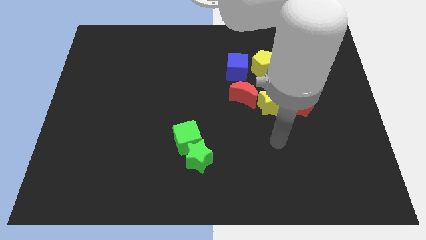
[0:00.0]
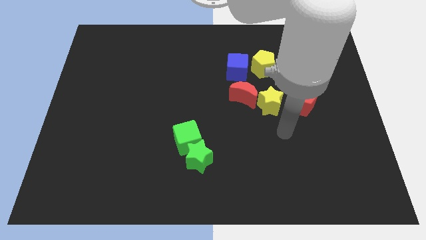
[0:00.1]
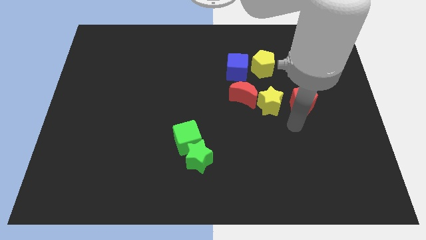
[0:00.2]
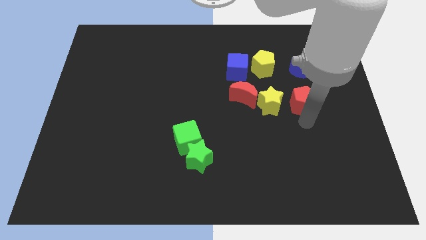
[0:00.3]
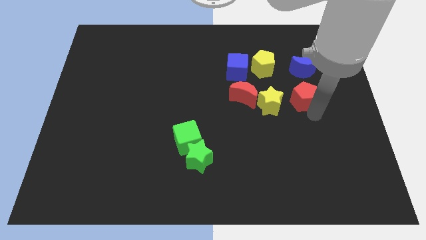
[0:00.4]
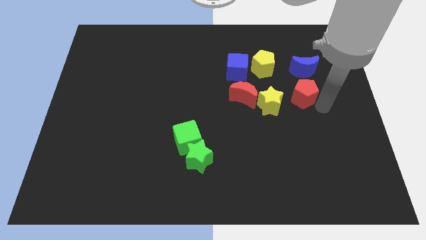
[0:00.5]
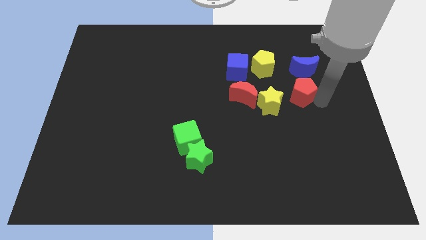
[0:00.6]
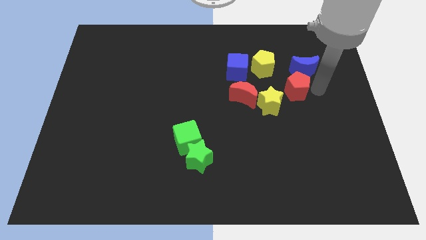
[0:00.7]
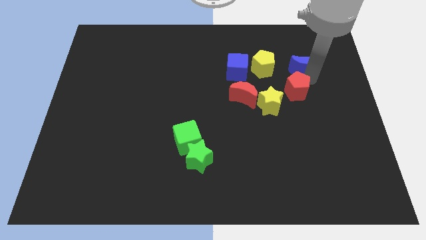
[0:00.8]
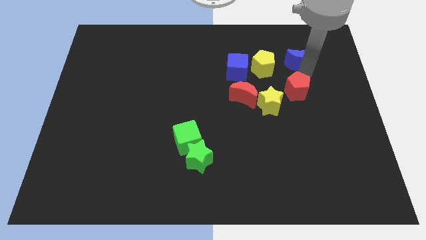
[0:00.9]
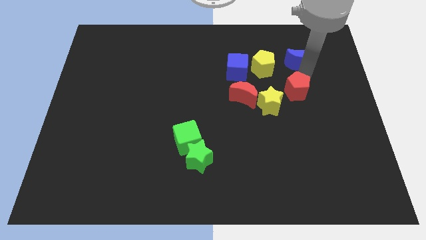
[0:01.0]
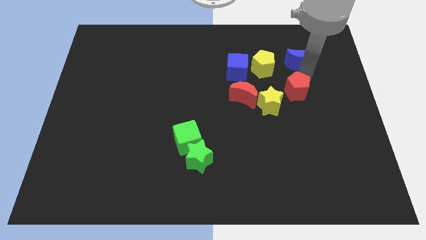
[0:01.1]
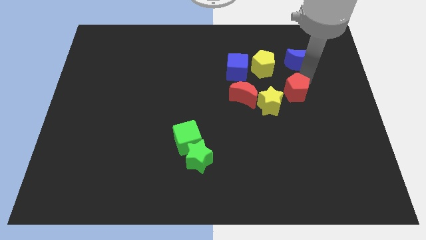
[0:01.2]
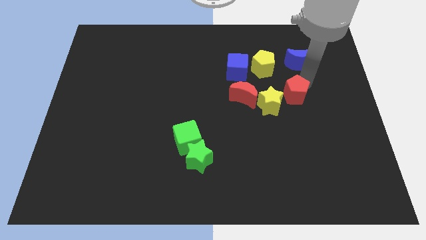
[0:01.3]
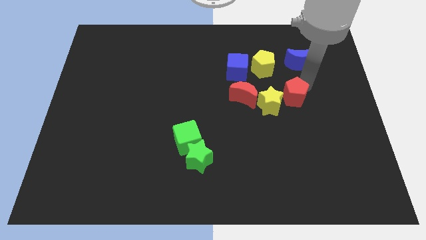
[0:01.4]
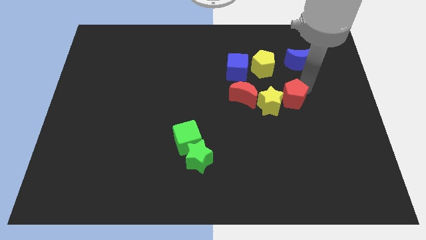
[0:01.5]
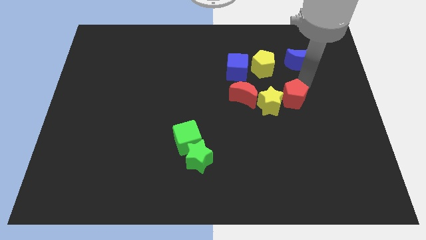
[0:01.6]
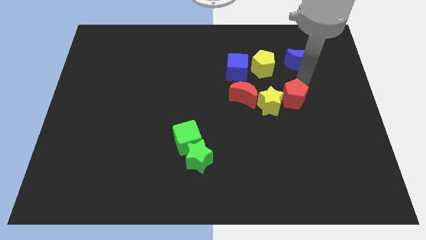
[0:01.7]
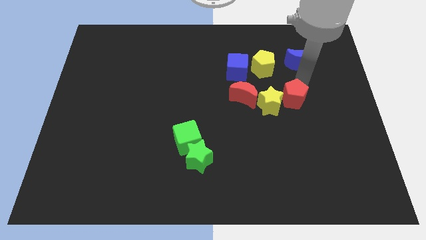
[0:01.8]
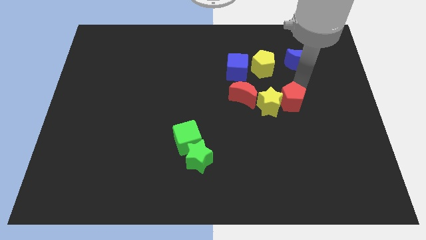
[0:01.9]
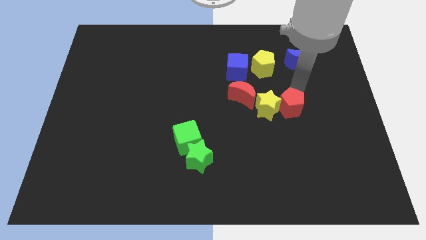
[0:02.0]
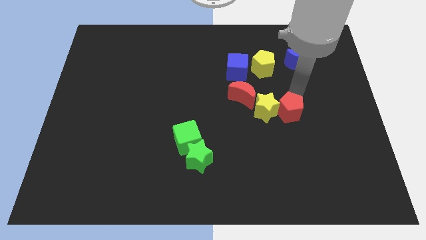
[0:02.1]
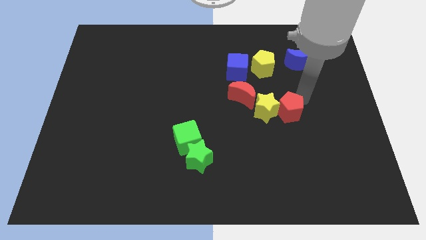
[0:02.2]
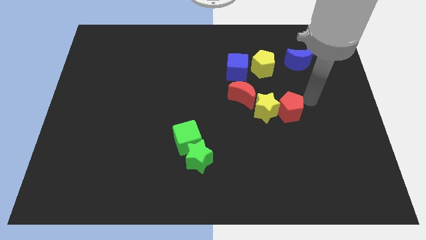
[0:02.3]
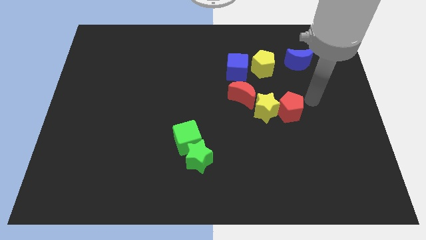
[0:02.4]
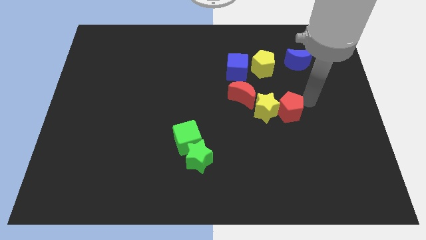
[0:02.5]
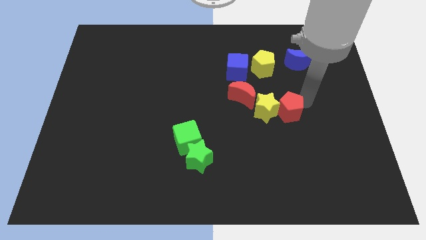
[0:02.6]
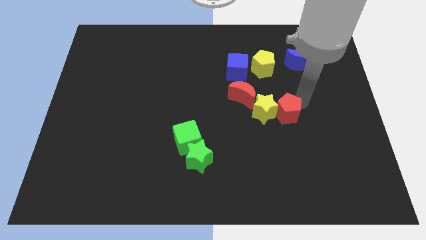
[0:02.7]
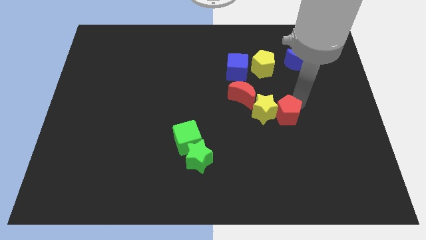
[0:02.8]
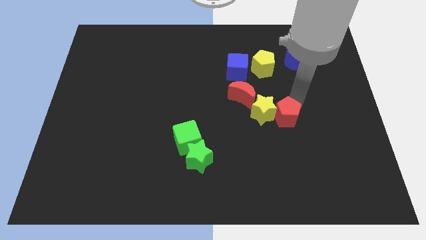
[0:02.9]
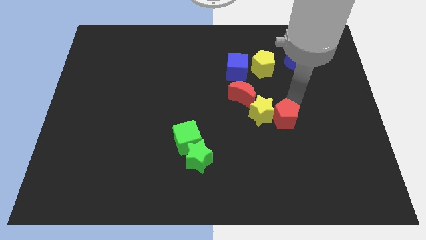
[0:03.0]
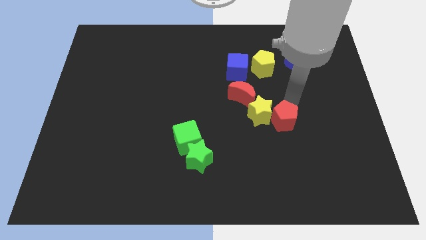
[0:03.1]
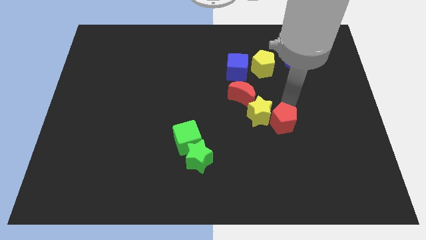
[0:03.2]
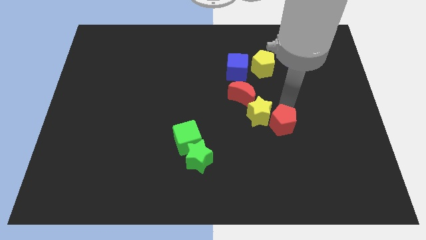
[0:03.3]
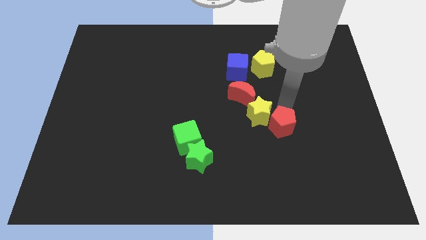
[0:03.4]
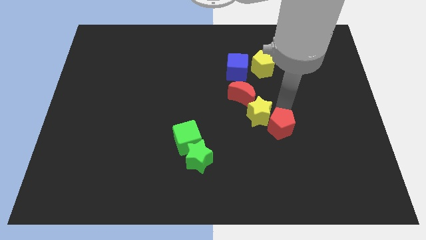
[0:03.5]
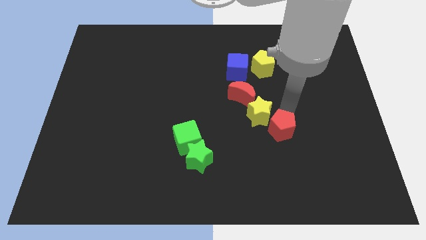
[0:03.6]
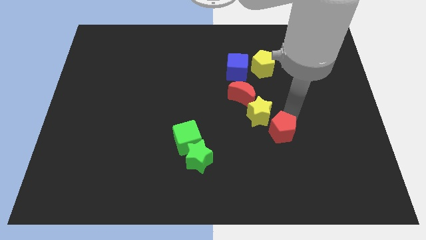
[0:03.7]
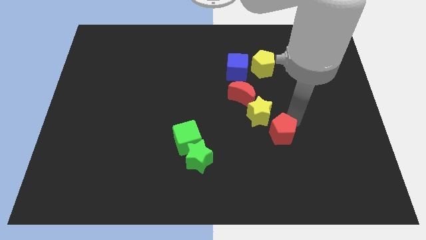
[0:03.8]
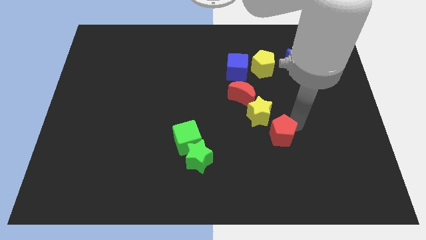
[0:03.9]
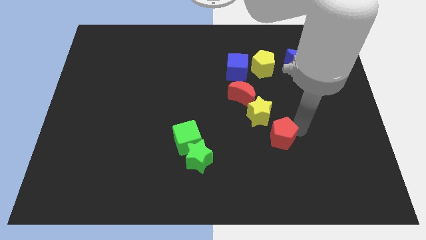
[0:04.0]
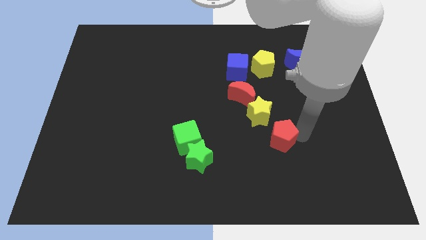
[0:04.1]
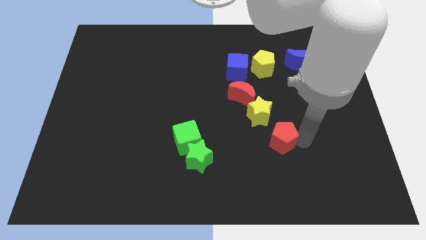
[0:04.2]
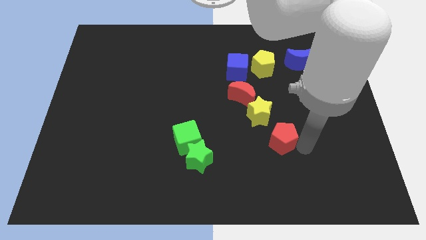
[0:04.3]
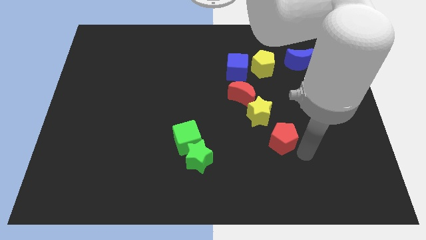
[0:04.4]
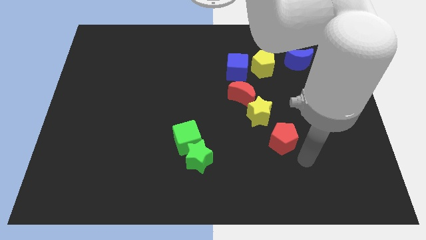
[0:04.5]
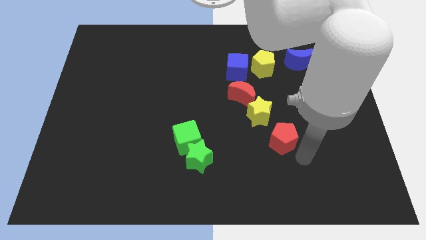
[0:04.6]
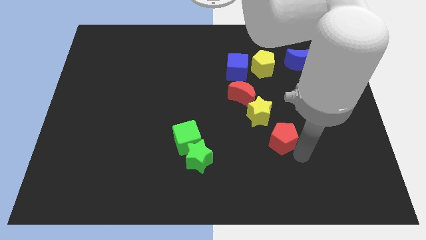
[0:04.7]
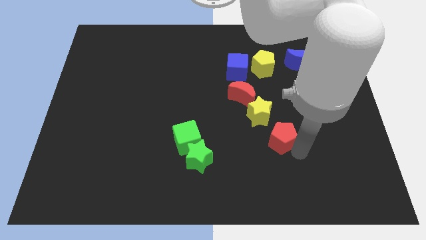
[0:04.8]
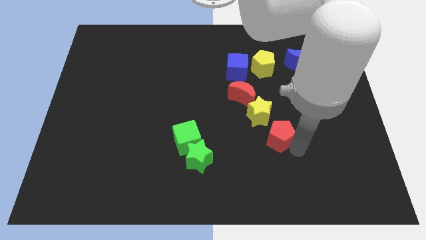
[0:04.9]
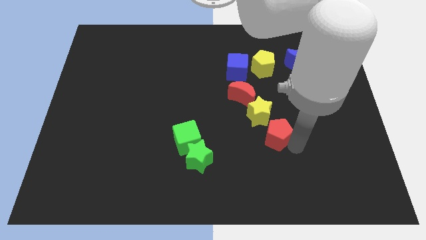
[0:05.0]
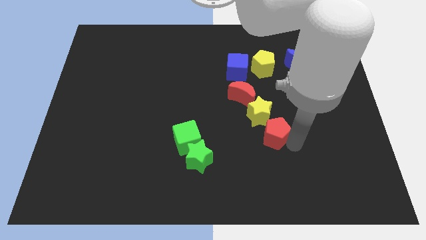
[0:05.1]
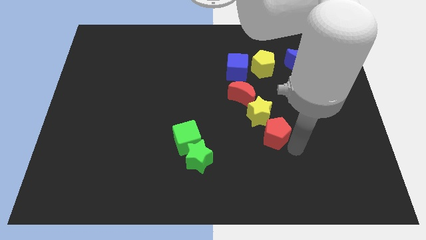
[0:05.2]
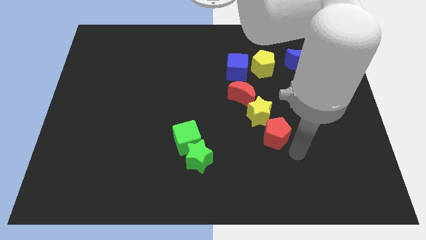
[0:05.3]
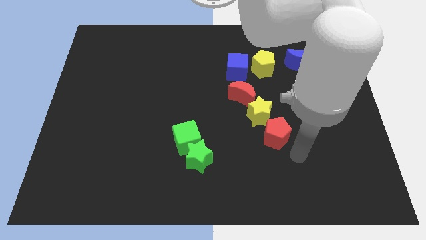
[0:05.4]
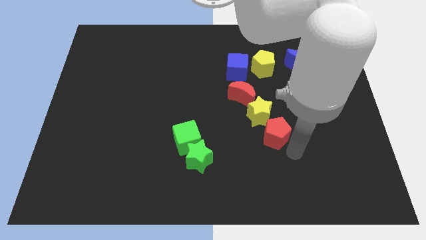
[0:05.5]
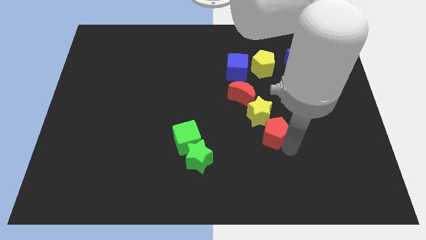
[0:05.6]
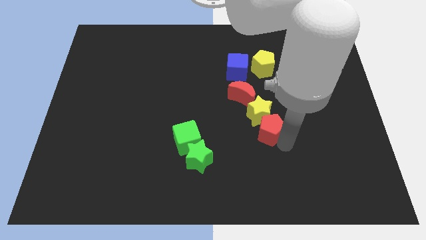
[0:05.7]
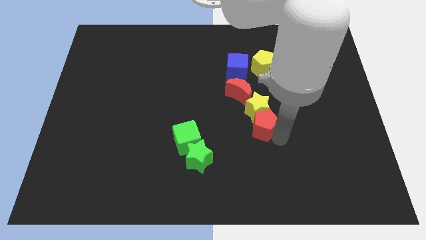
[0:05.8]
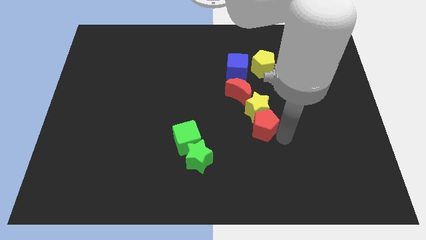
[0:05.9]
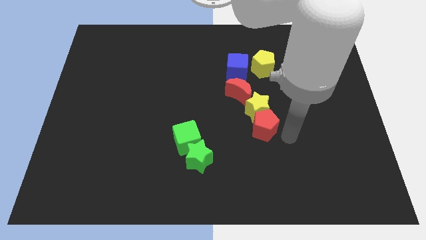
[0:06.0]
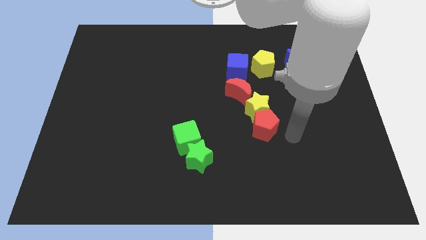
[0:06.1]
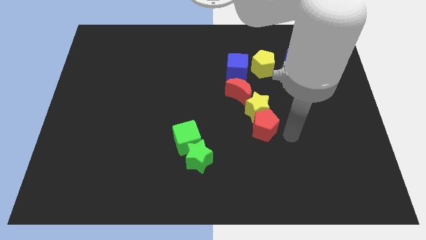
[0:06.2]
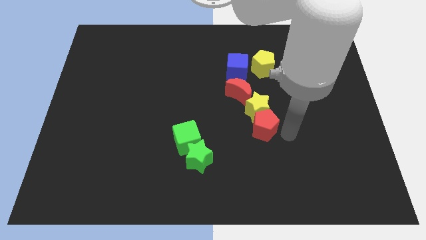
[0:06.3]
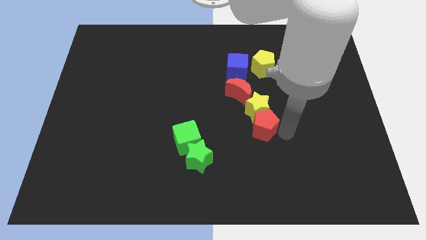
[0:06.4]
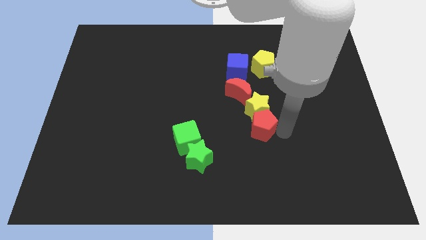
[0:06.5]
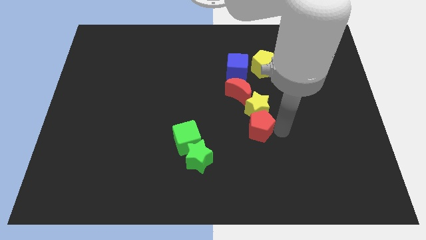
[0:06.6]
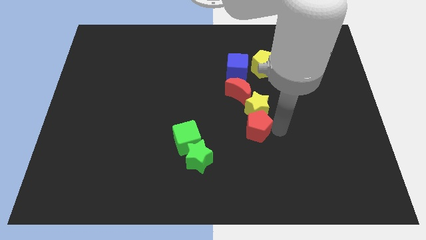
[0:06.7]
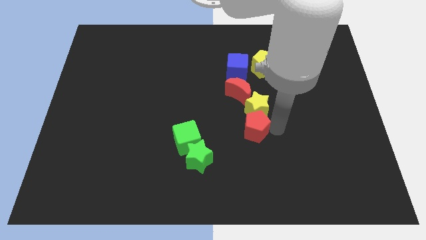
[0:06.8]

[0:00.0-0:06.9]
push the red pentagon to the center
